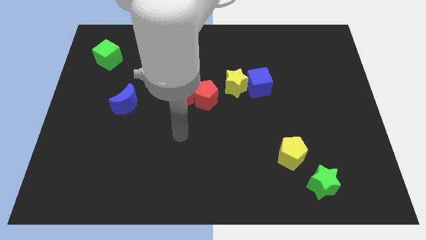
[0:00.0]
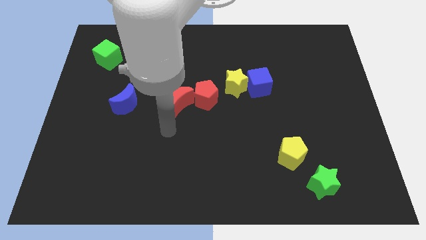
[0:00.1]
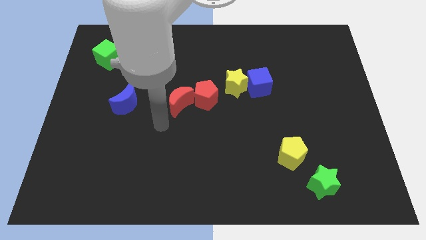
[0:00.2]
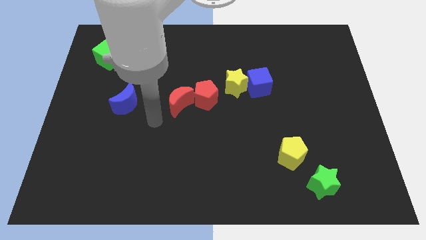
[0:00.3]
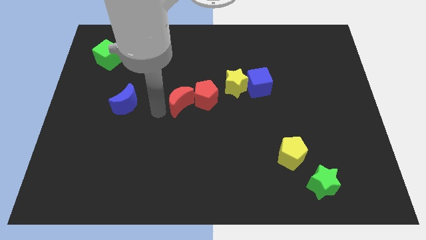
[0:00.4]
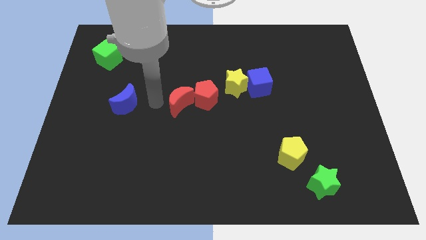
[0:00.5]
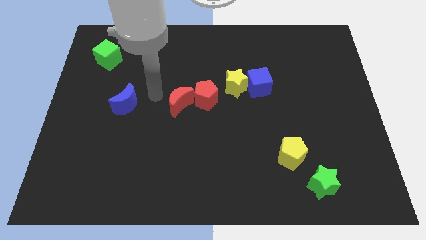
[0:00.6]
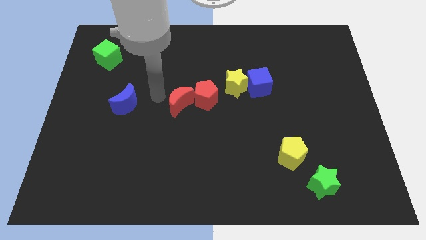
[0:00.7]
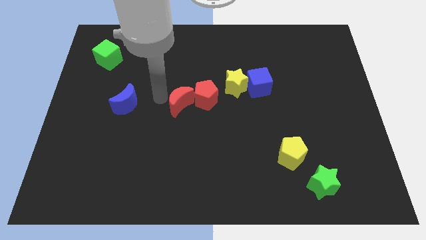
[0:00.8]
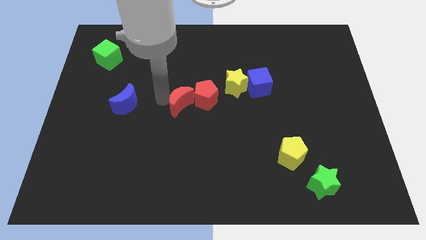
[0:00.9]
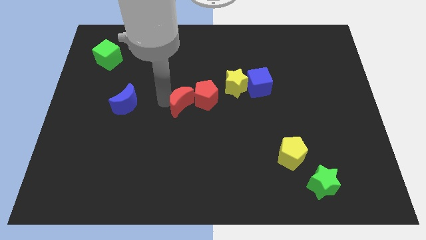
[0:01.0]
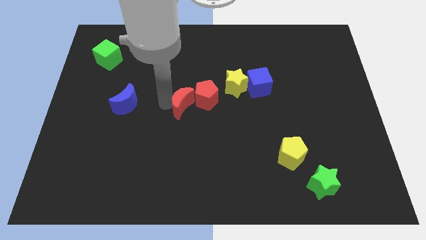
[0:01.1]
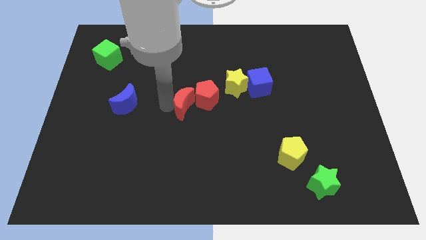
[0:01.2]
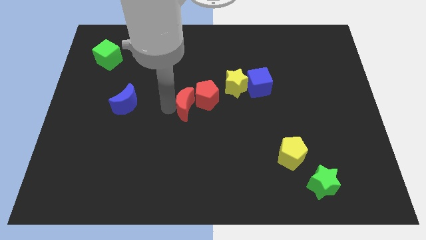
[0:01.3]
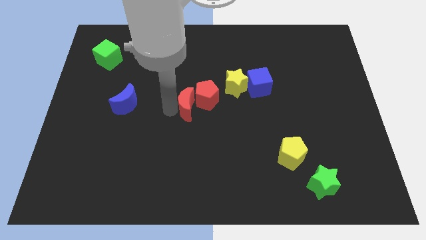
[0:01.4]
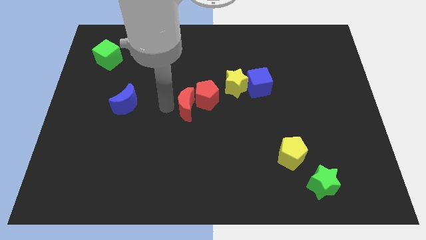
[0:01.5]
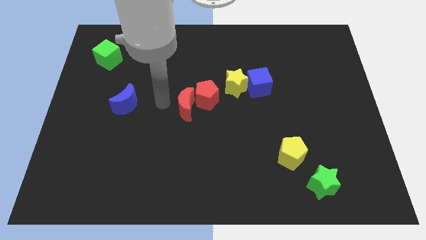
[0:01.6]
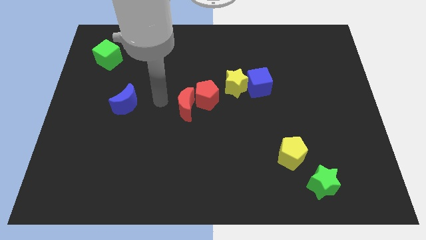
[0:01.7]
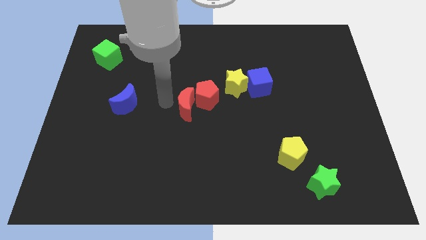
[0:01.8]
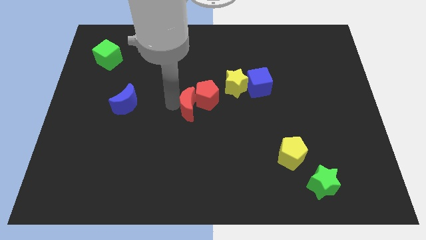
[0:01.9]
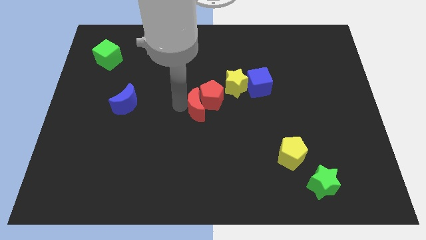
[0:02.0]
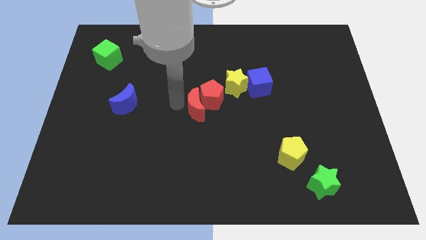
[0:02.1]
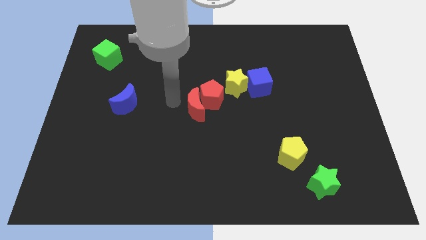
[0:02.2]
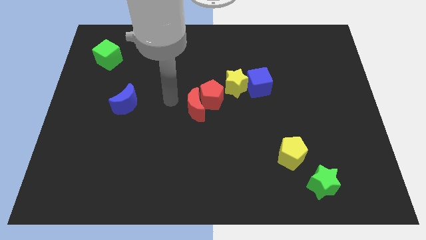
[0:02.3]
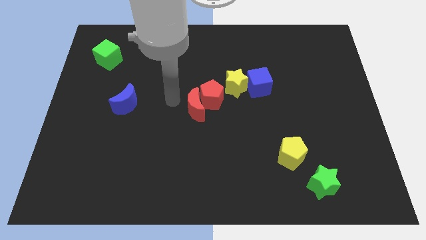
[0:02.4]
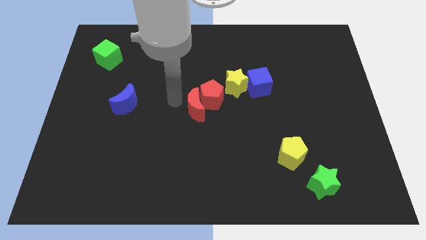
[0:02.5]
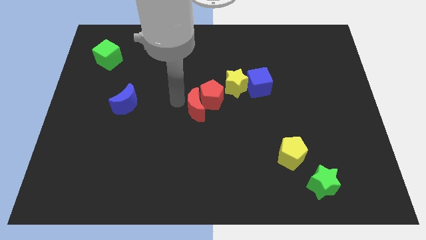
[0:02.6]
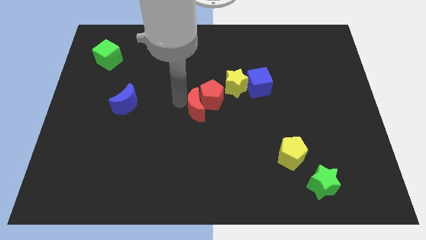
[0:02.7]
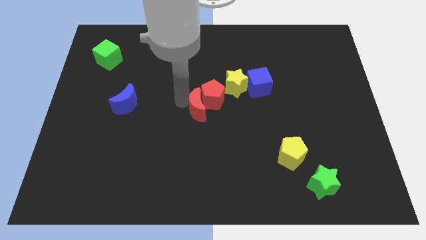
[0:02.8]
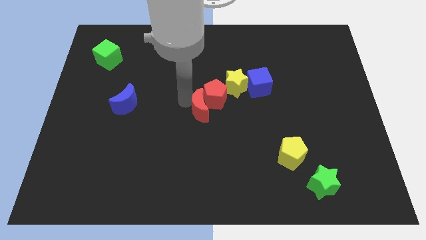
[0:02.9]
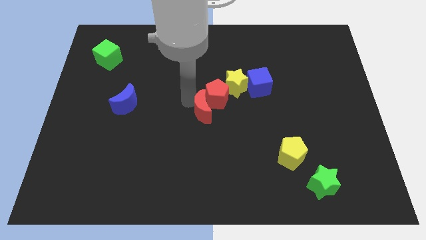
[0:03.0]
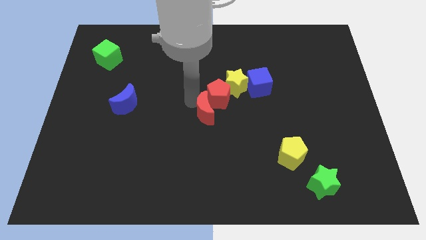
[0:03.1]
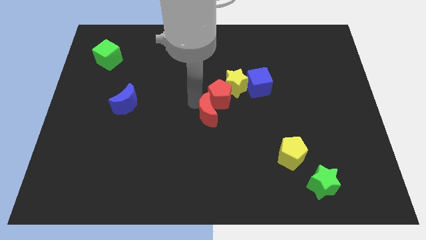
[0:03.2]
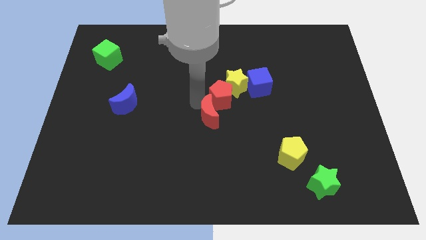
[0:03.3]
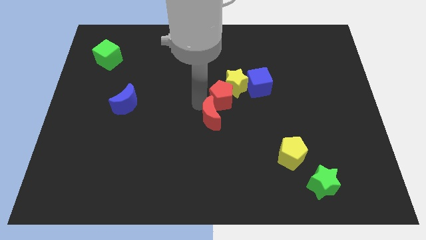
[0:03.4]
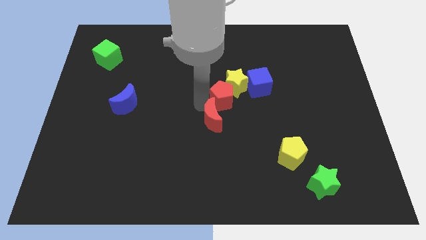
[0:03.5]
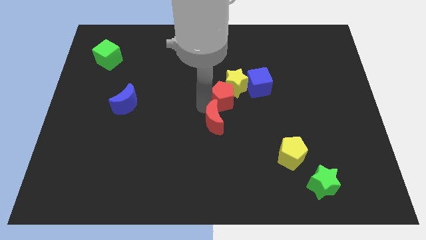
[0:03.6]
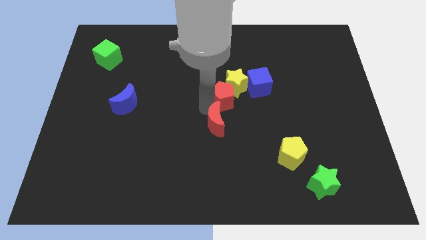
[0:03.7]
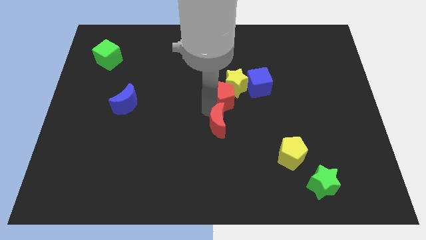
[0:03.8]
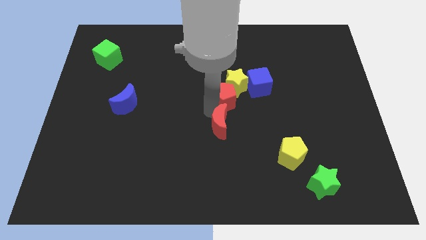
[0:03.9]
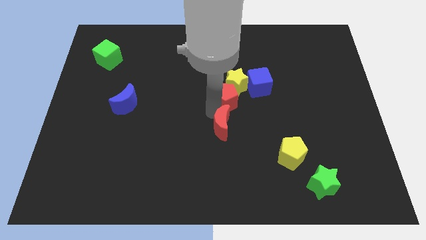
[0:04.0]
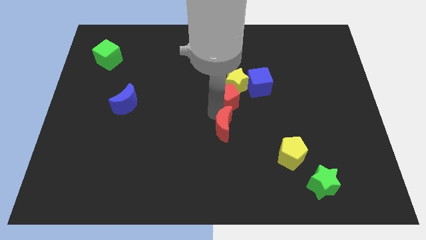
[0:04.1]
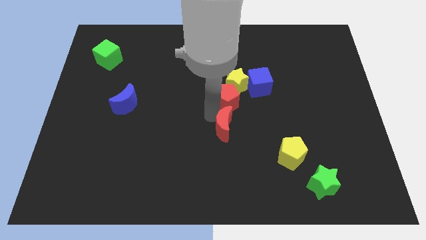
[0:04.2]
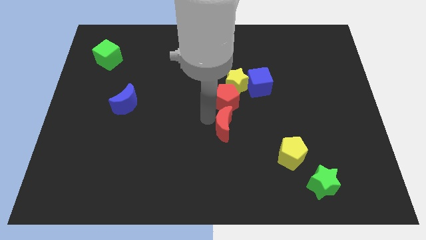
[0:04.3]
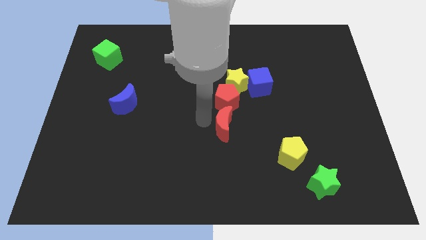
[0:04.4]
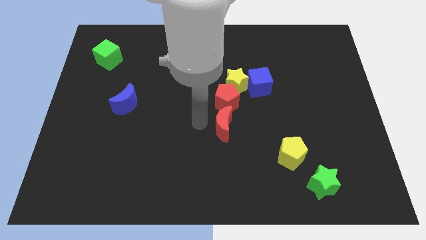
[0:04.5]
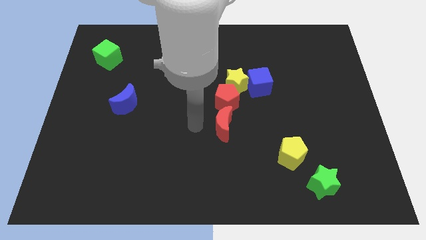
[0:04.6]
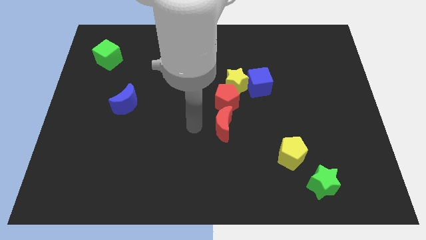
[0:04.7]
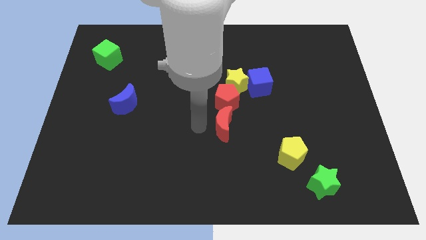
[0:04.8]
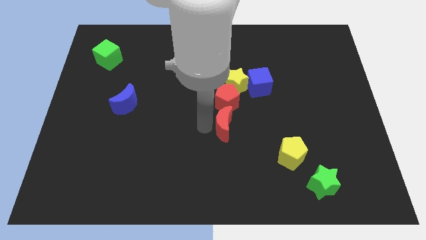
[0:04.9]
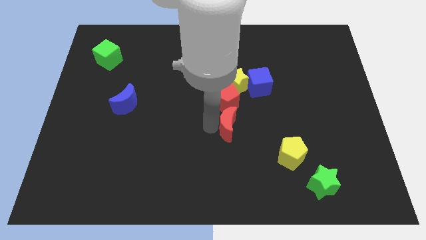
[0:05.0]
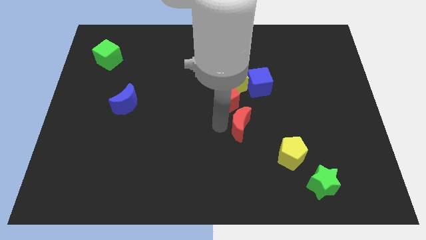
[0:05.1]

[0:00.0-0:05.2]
put the red moon to the top left side of the yellow pentagon

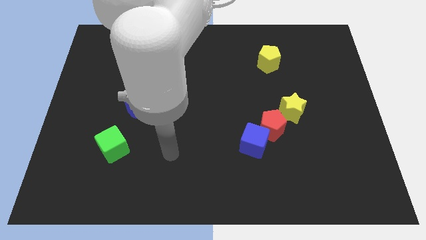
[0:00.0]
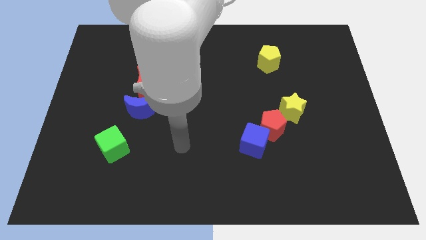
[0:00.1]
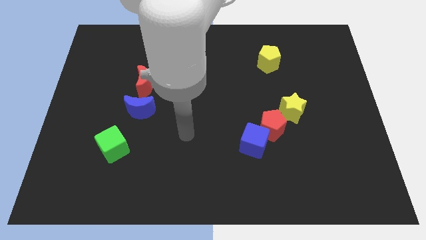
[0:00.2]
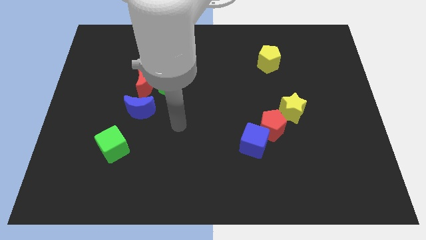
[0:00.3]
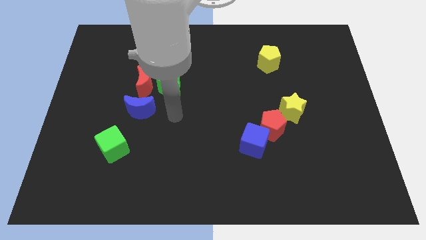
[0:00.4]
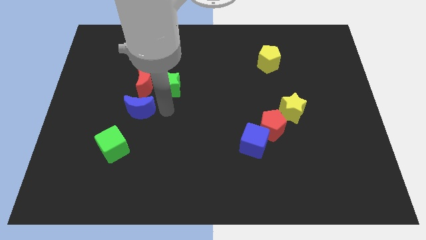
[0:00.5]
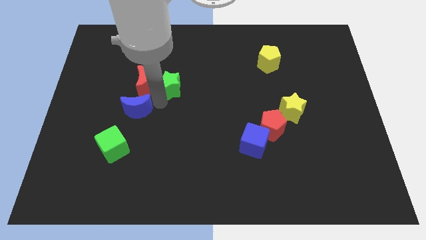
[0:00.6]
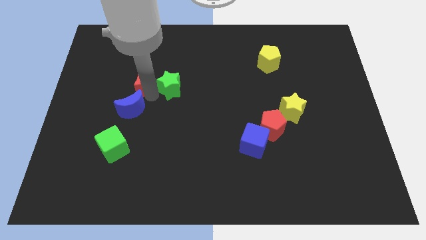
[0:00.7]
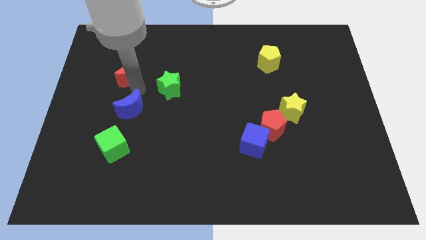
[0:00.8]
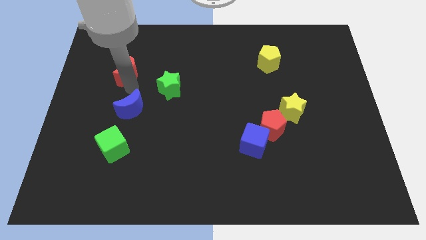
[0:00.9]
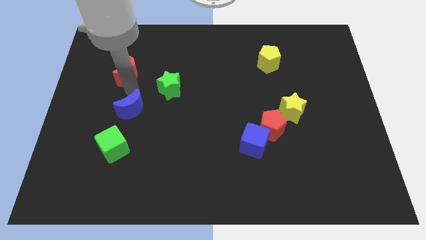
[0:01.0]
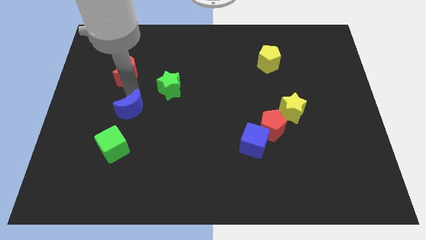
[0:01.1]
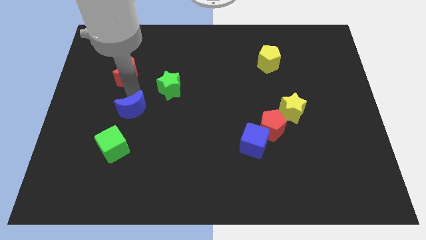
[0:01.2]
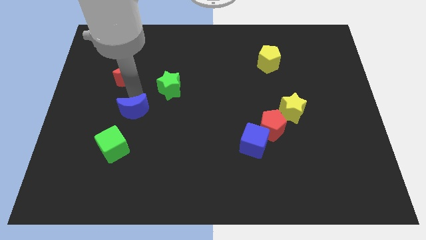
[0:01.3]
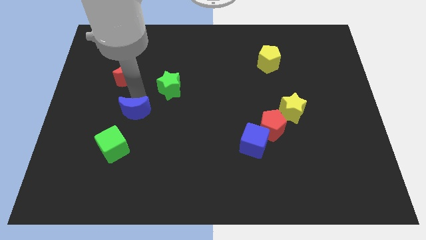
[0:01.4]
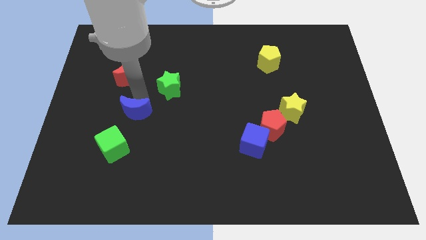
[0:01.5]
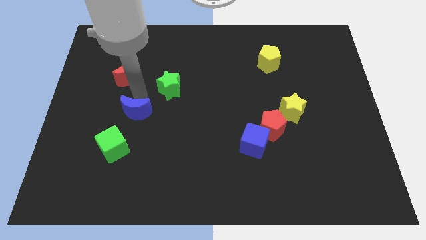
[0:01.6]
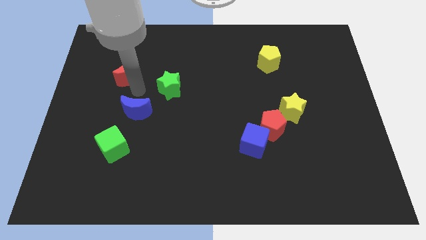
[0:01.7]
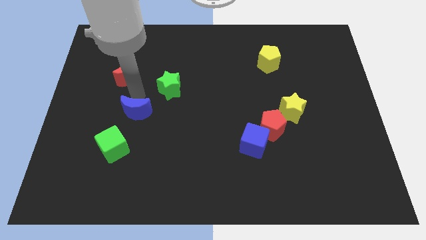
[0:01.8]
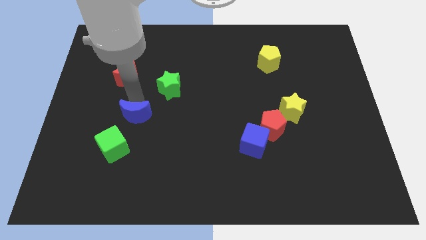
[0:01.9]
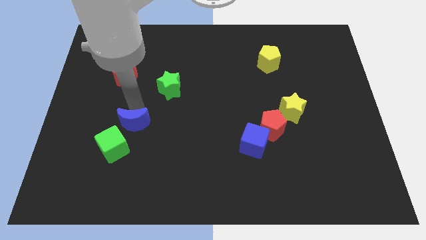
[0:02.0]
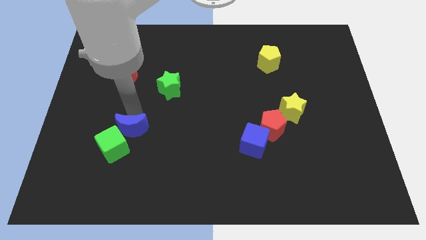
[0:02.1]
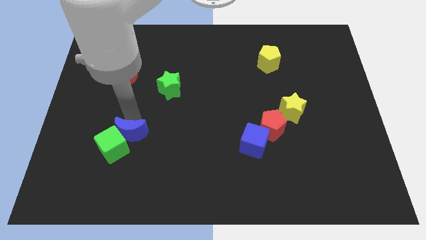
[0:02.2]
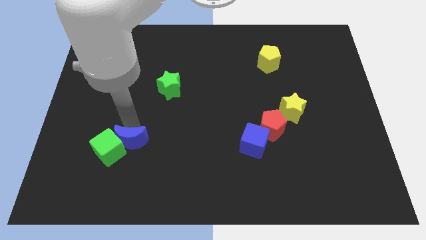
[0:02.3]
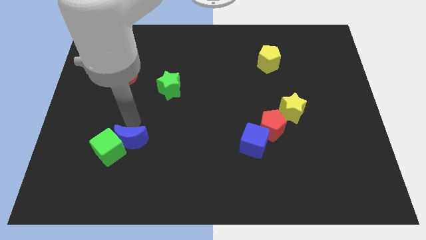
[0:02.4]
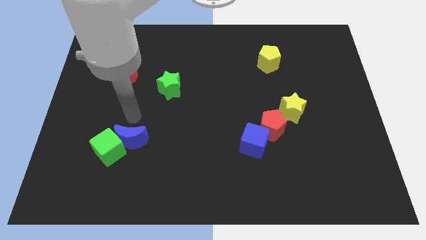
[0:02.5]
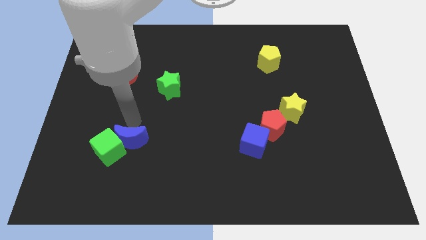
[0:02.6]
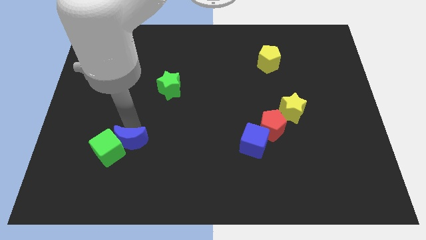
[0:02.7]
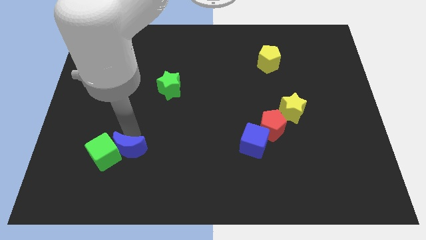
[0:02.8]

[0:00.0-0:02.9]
move the blue moon to the bottom right of the green cube
